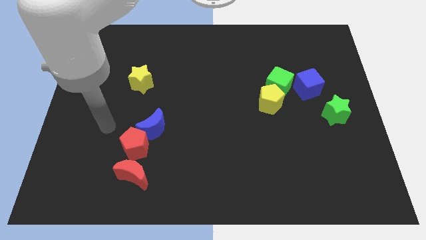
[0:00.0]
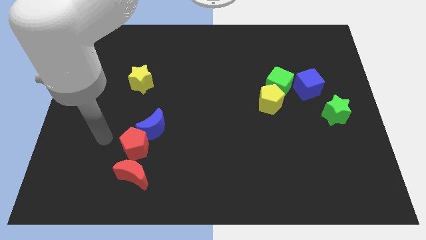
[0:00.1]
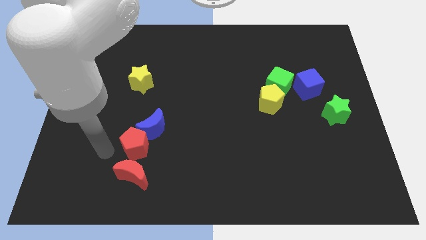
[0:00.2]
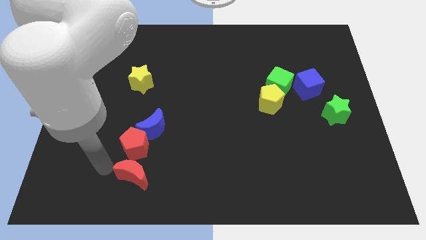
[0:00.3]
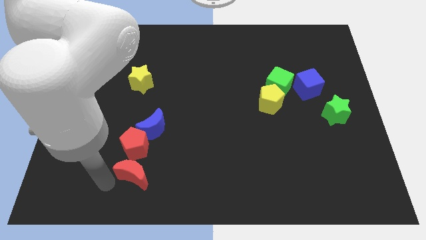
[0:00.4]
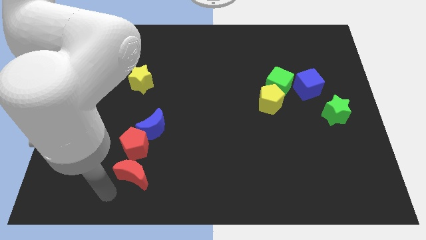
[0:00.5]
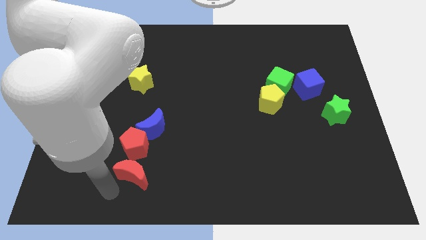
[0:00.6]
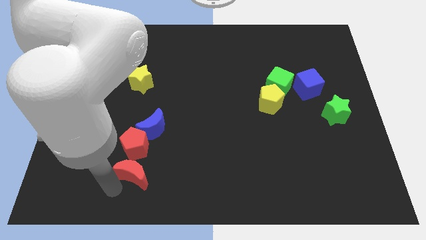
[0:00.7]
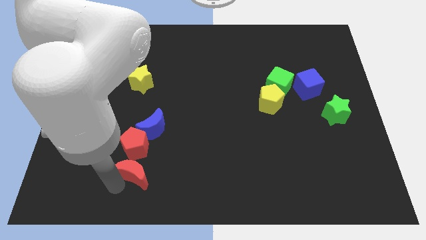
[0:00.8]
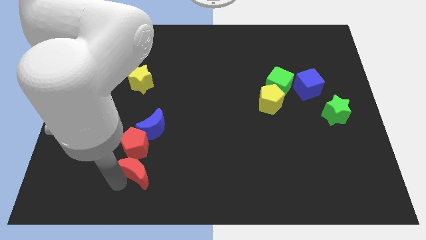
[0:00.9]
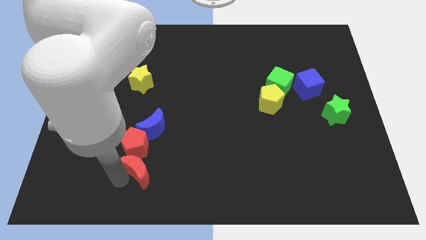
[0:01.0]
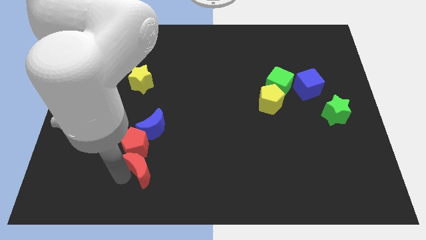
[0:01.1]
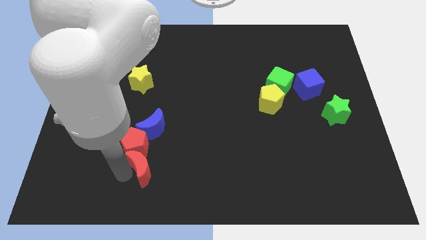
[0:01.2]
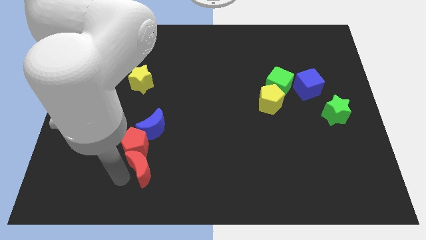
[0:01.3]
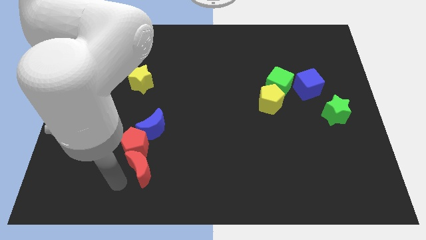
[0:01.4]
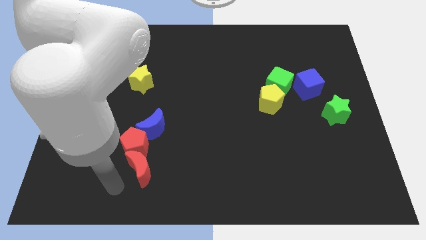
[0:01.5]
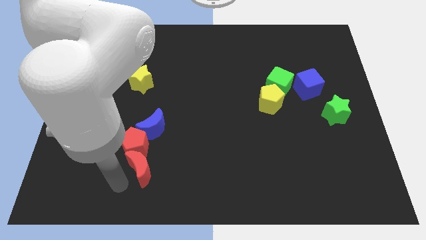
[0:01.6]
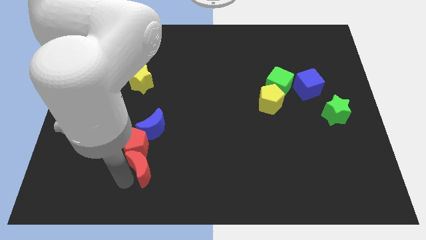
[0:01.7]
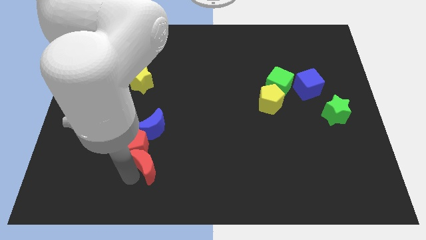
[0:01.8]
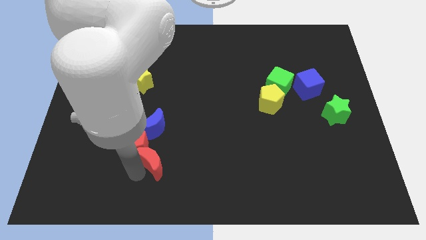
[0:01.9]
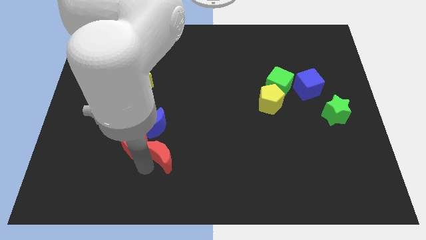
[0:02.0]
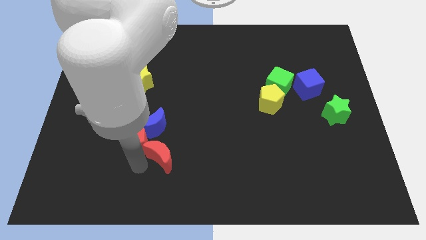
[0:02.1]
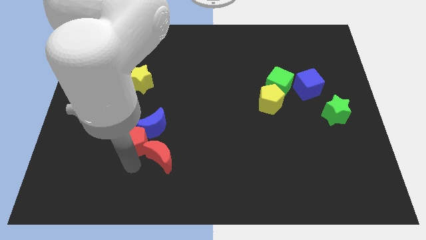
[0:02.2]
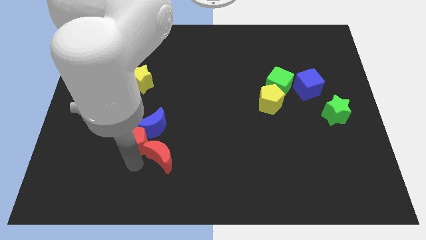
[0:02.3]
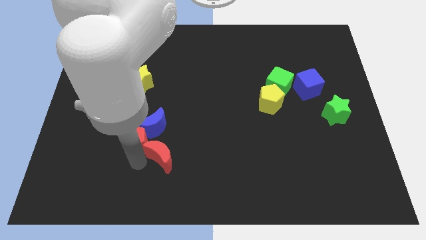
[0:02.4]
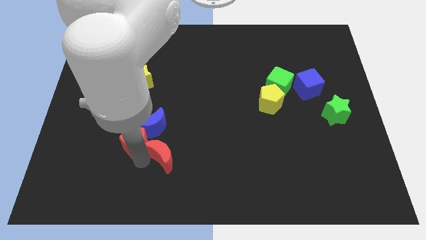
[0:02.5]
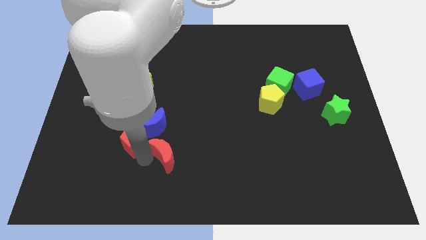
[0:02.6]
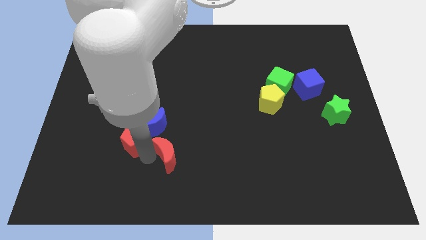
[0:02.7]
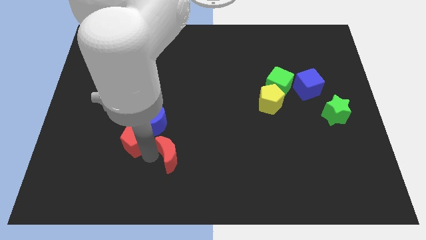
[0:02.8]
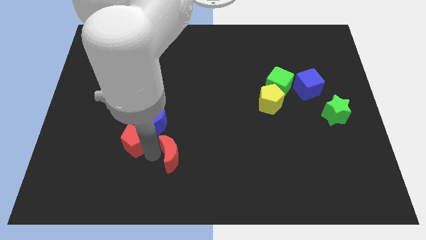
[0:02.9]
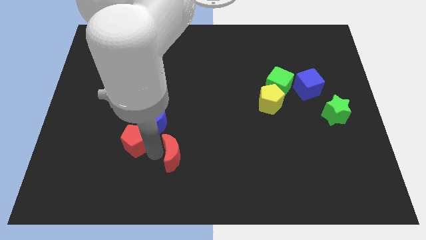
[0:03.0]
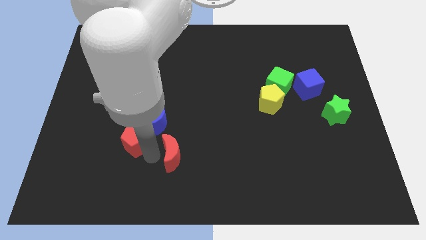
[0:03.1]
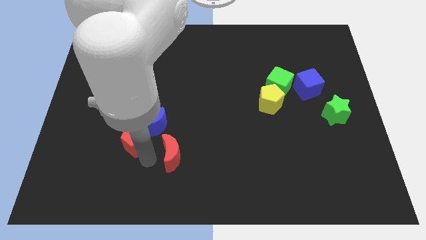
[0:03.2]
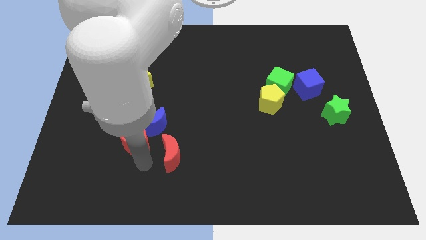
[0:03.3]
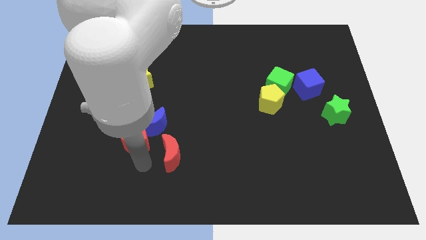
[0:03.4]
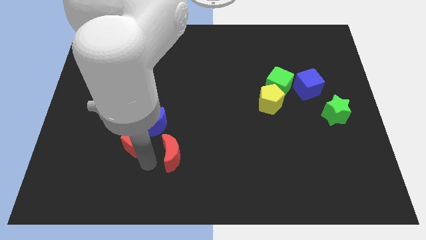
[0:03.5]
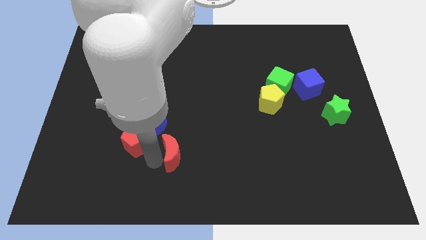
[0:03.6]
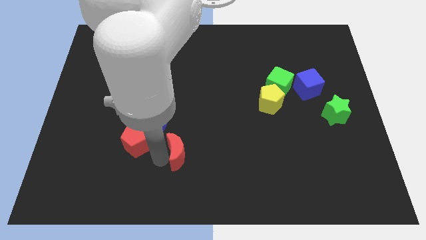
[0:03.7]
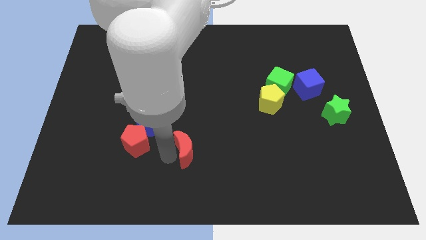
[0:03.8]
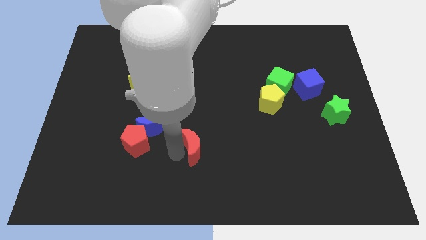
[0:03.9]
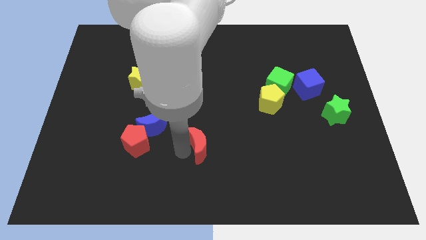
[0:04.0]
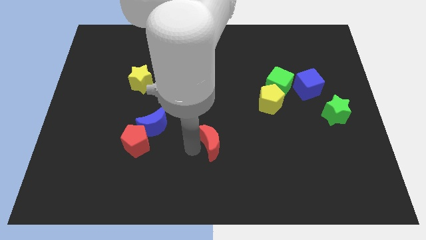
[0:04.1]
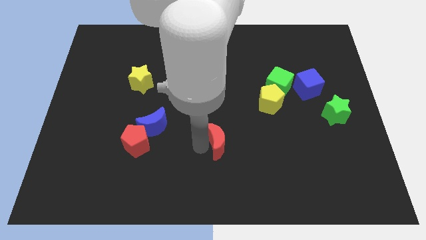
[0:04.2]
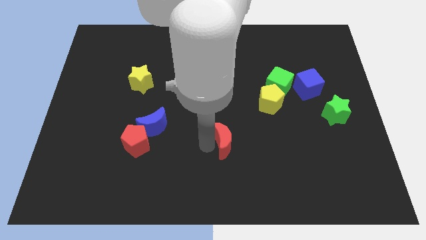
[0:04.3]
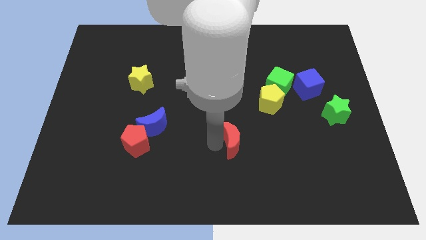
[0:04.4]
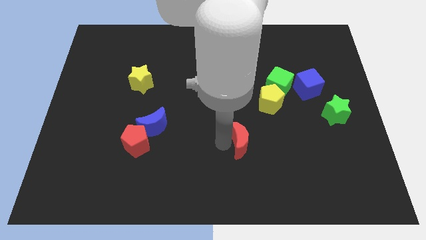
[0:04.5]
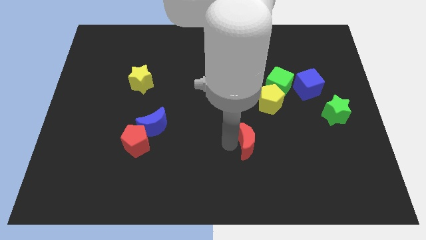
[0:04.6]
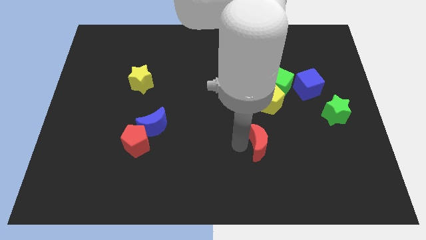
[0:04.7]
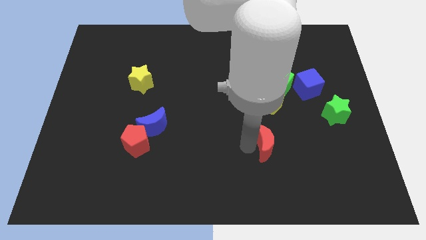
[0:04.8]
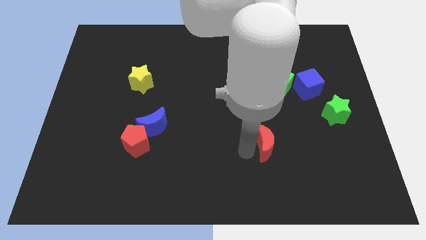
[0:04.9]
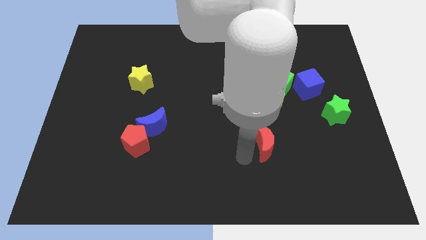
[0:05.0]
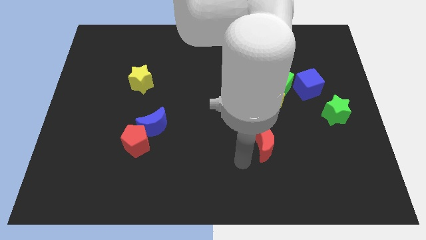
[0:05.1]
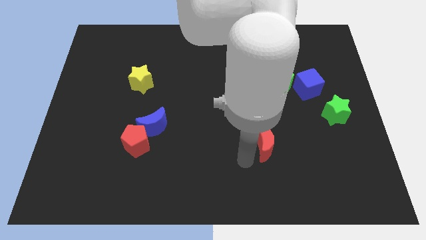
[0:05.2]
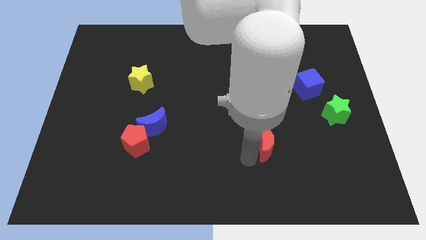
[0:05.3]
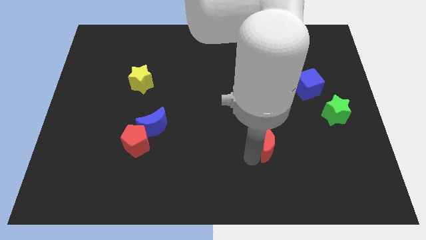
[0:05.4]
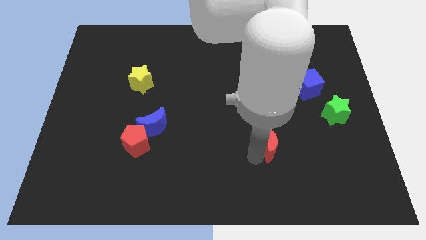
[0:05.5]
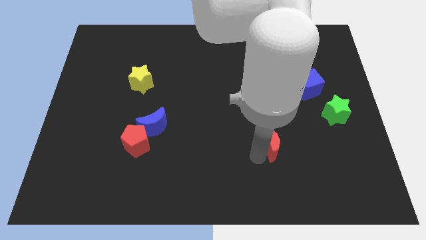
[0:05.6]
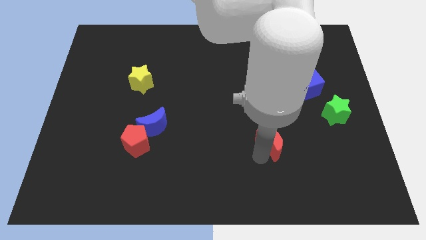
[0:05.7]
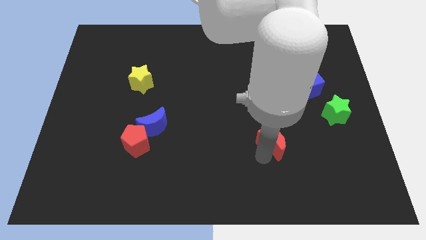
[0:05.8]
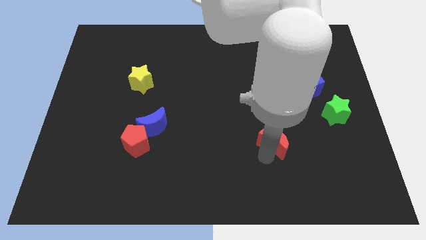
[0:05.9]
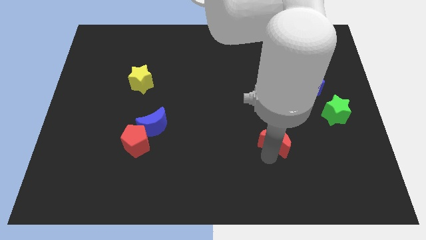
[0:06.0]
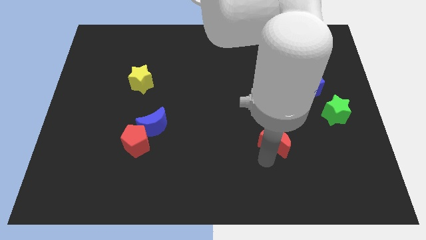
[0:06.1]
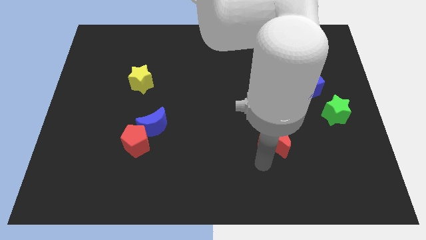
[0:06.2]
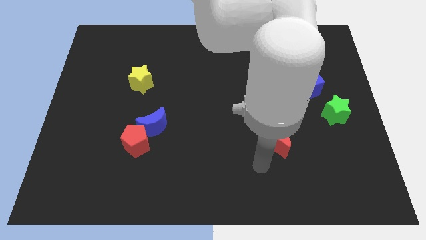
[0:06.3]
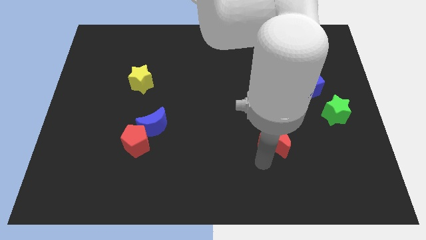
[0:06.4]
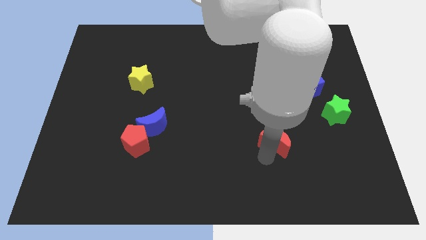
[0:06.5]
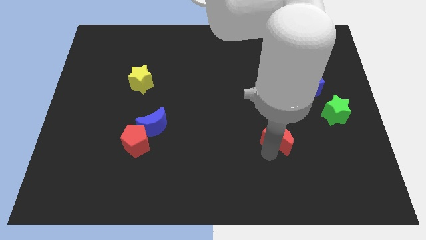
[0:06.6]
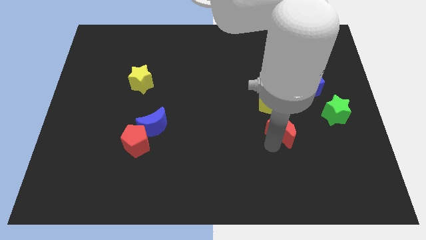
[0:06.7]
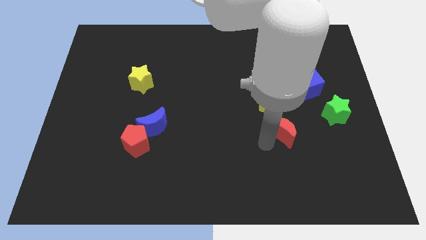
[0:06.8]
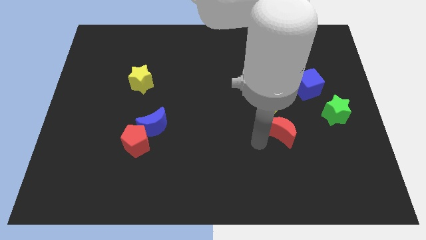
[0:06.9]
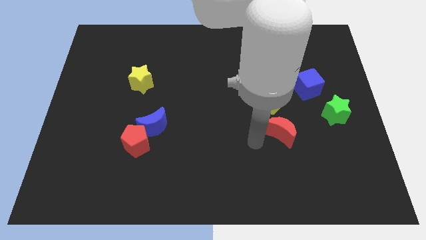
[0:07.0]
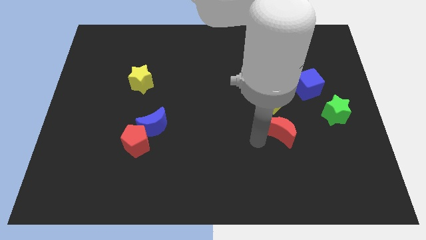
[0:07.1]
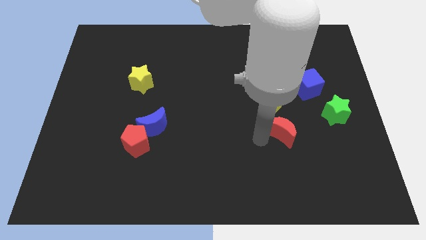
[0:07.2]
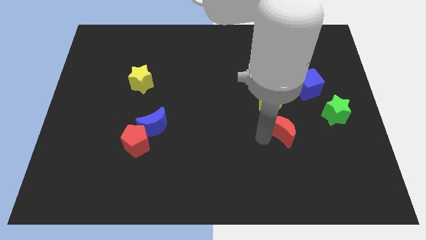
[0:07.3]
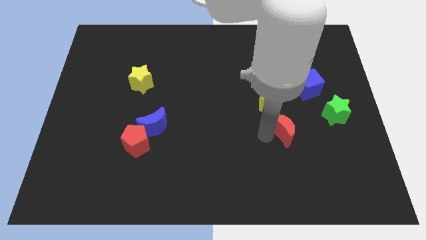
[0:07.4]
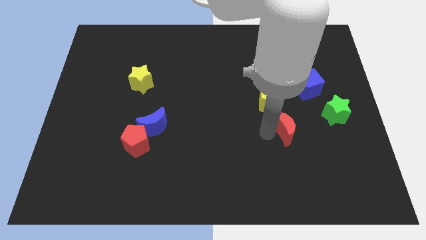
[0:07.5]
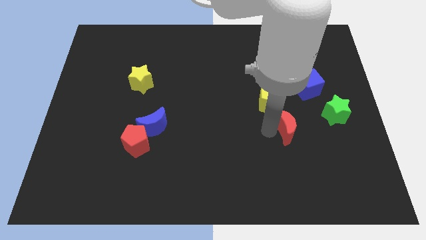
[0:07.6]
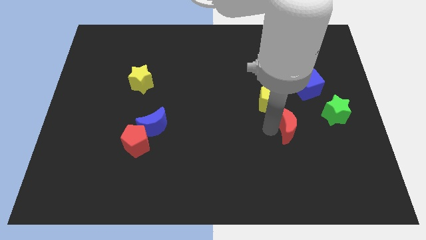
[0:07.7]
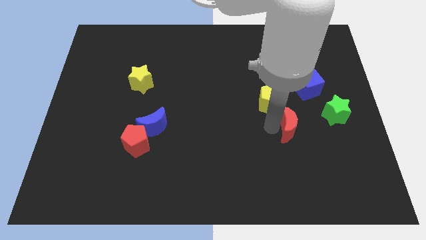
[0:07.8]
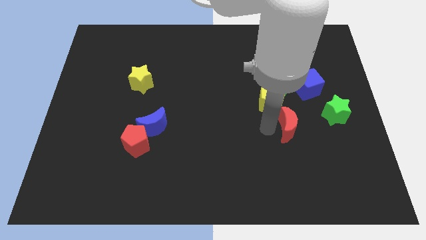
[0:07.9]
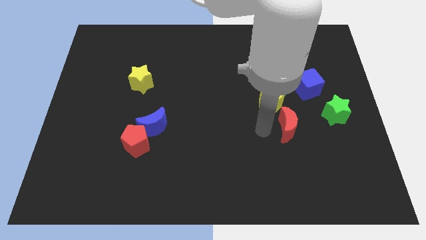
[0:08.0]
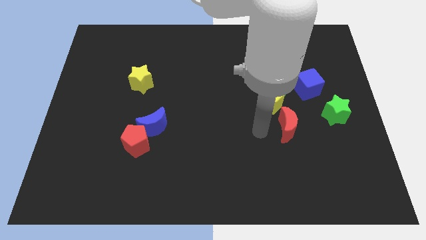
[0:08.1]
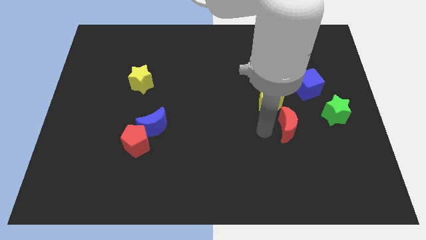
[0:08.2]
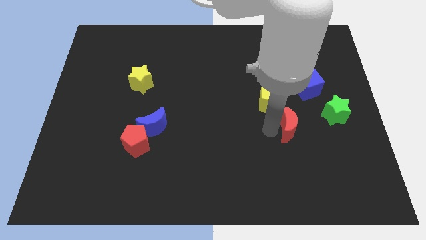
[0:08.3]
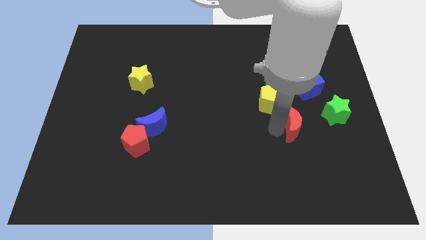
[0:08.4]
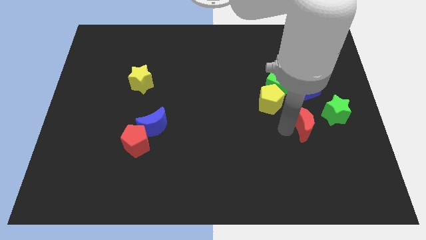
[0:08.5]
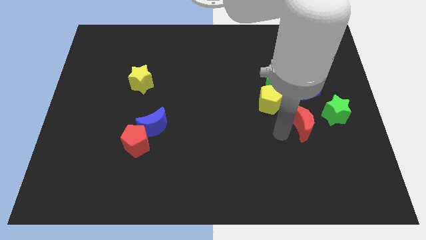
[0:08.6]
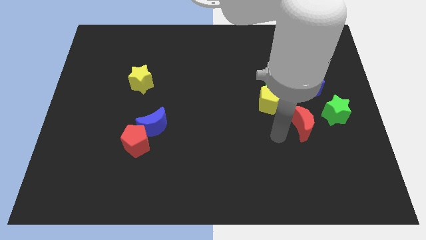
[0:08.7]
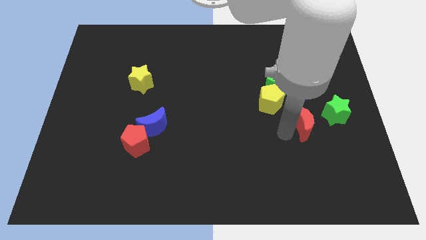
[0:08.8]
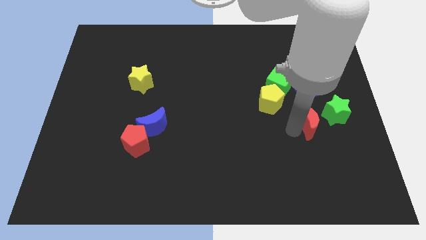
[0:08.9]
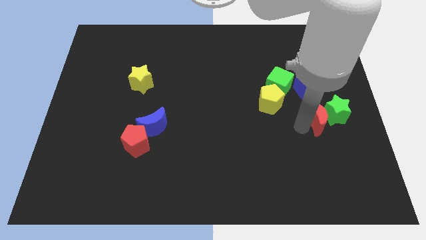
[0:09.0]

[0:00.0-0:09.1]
slide the red moon next to the green star
